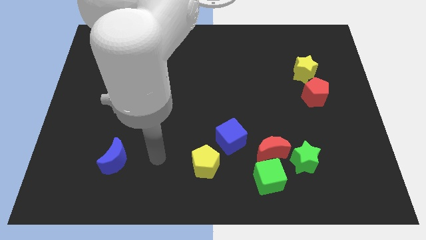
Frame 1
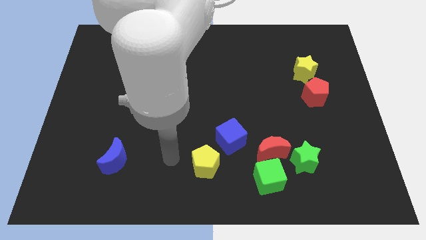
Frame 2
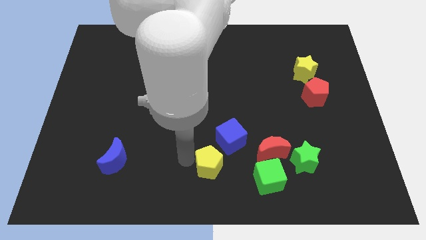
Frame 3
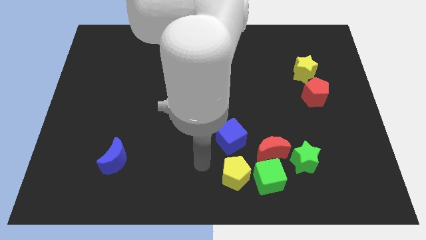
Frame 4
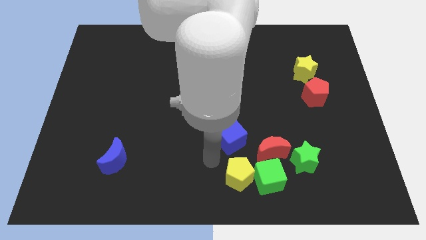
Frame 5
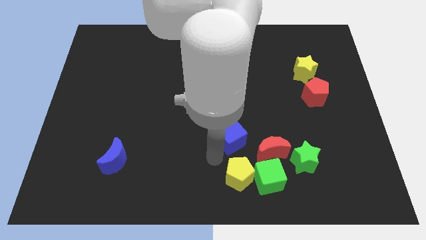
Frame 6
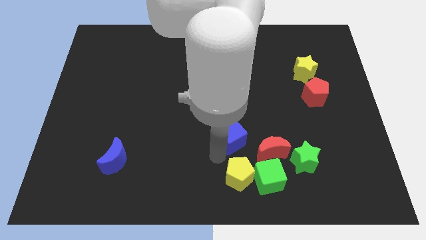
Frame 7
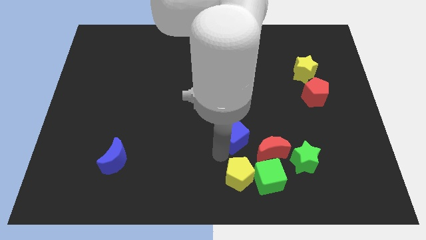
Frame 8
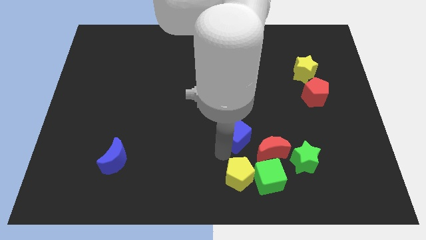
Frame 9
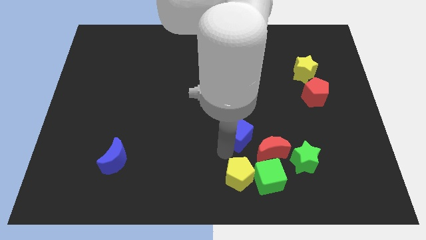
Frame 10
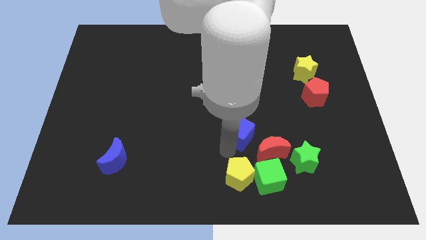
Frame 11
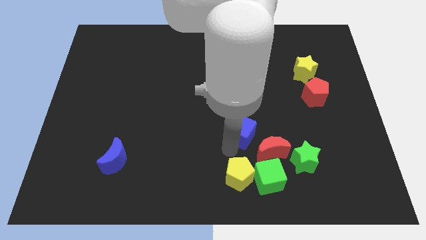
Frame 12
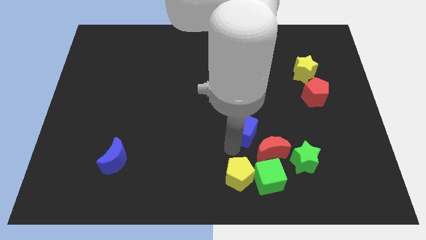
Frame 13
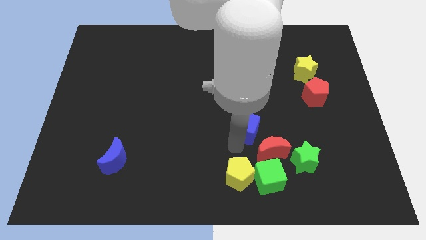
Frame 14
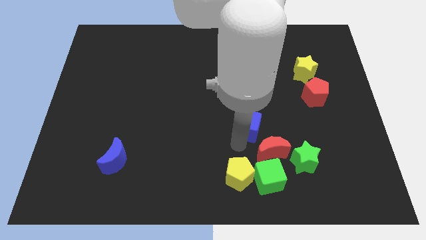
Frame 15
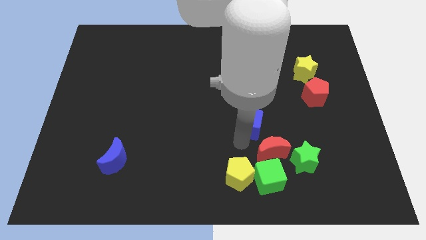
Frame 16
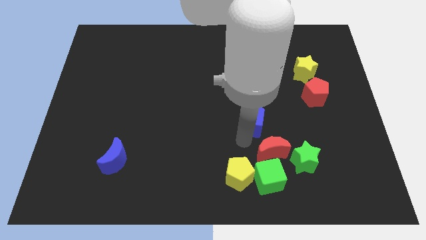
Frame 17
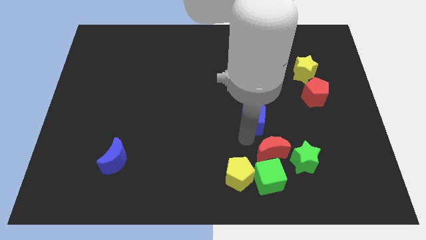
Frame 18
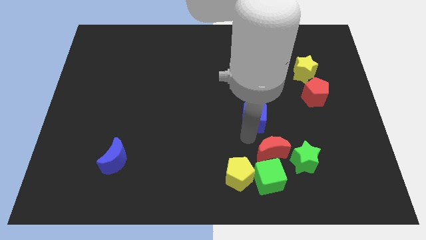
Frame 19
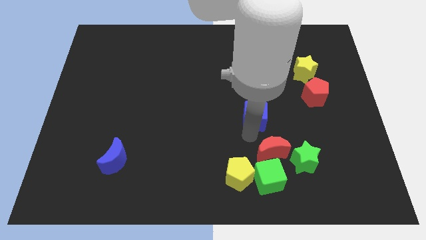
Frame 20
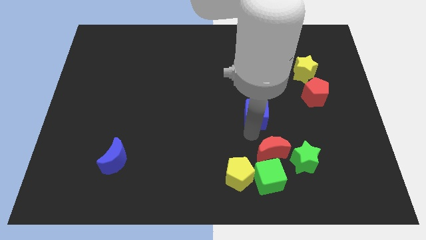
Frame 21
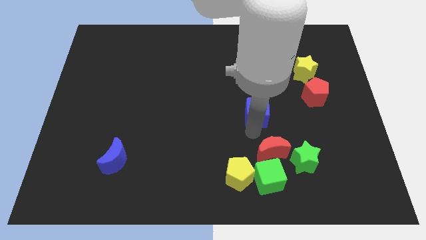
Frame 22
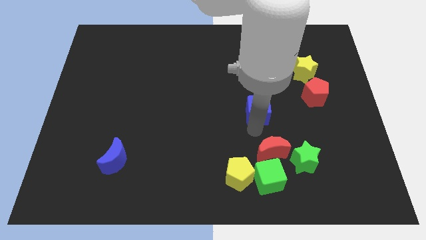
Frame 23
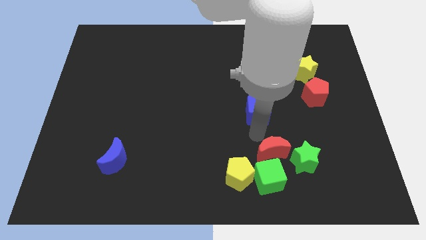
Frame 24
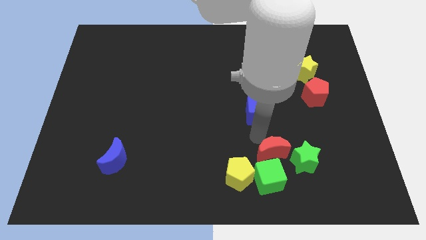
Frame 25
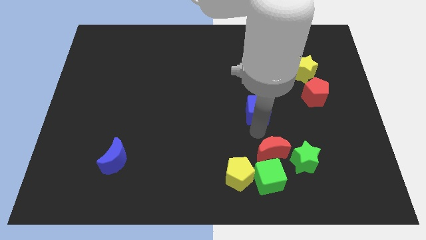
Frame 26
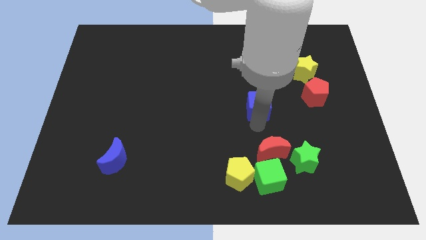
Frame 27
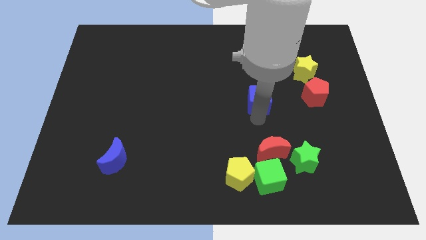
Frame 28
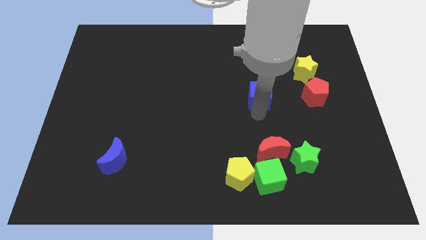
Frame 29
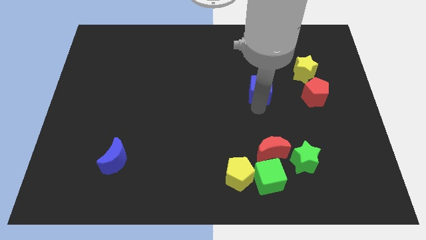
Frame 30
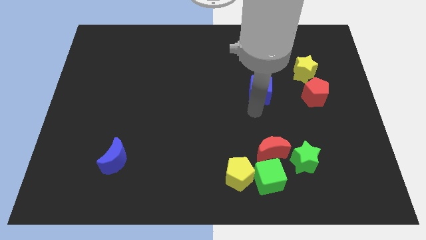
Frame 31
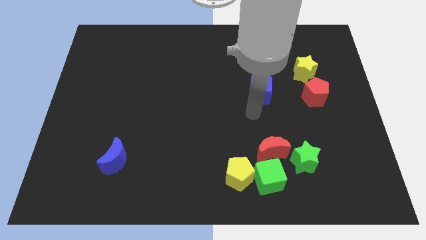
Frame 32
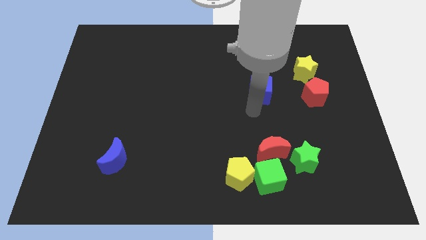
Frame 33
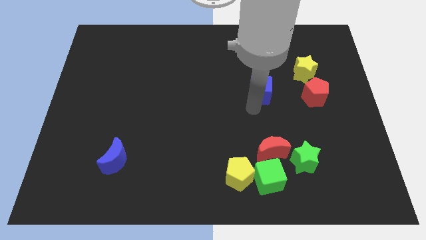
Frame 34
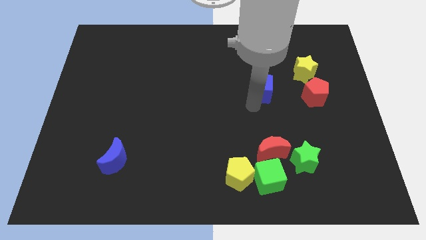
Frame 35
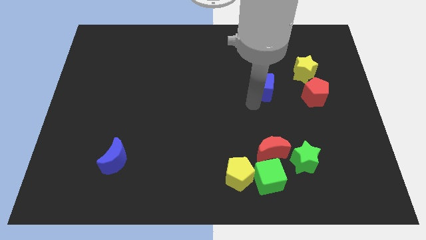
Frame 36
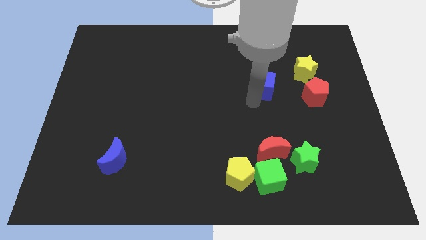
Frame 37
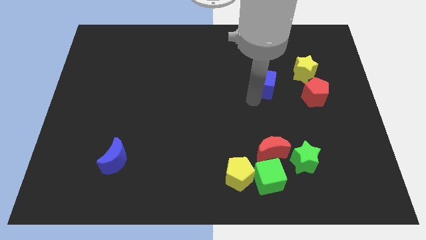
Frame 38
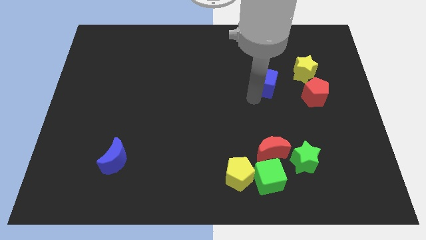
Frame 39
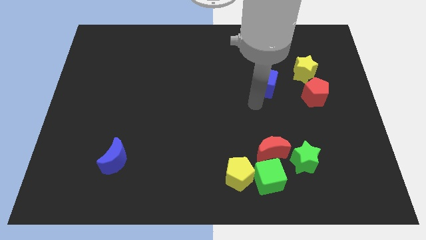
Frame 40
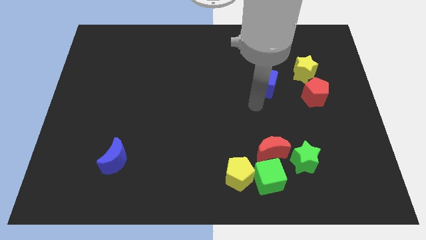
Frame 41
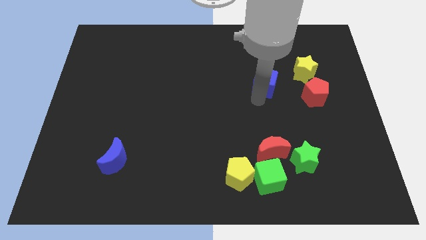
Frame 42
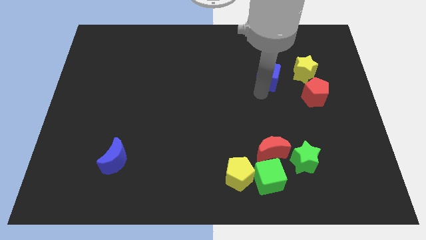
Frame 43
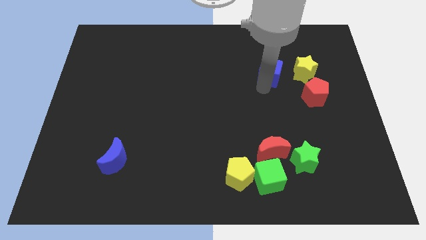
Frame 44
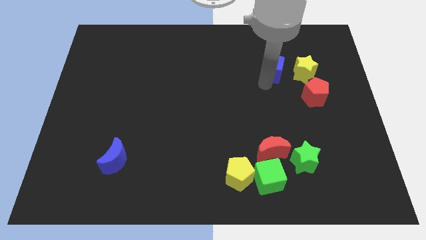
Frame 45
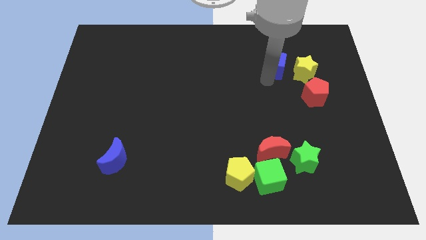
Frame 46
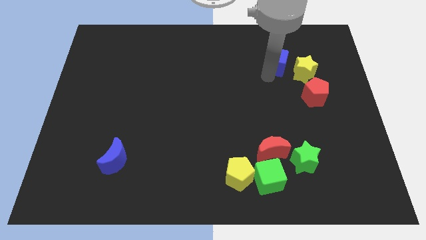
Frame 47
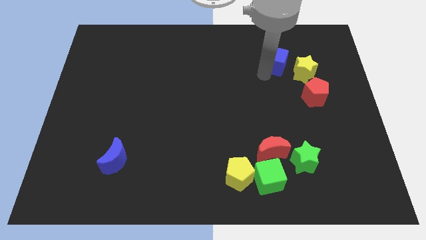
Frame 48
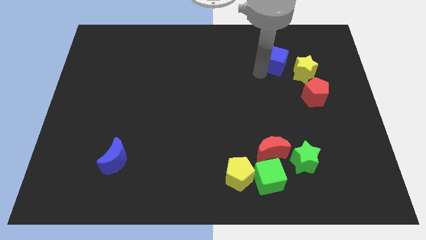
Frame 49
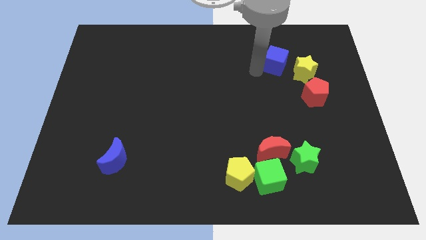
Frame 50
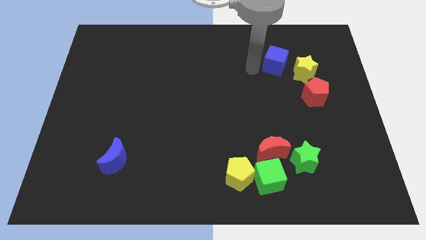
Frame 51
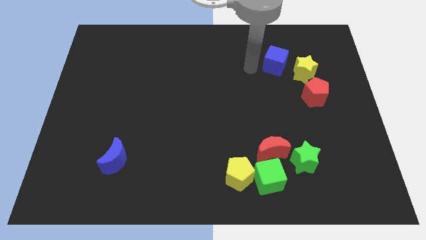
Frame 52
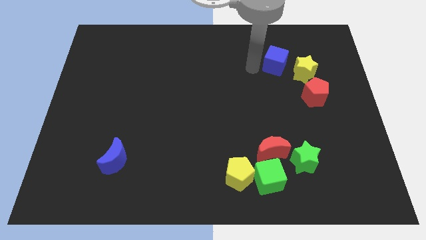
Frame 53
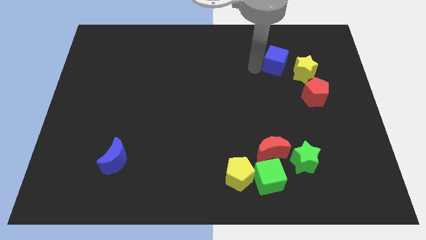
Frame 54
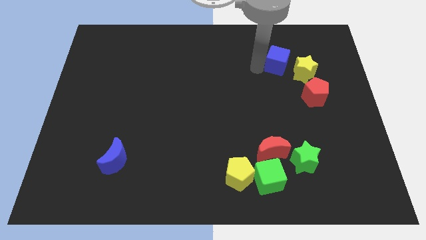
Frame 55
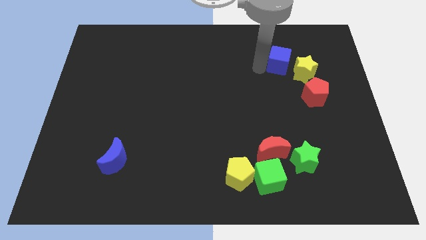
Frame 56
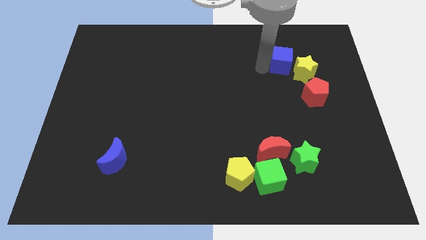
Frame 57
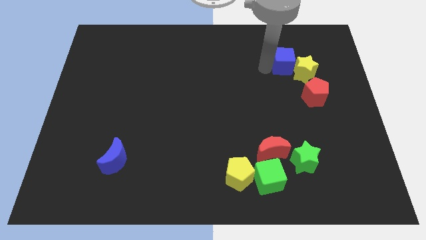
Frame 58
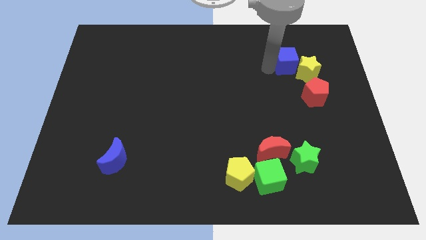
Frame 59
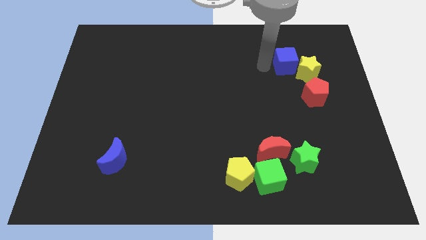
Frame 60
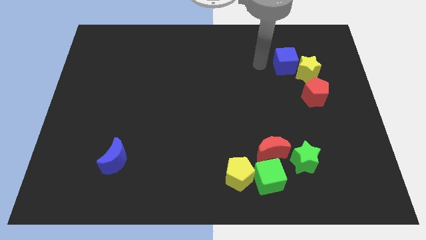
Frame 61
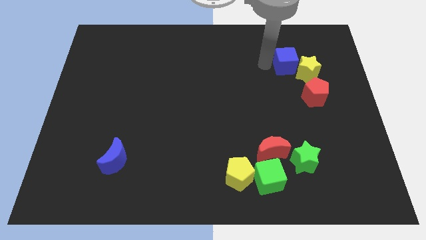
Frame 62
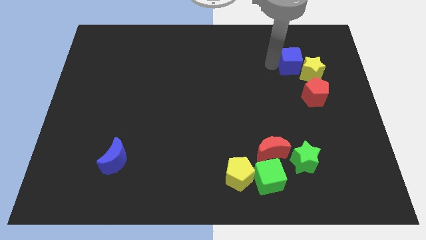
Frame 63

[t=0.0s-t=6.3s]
put the blue cube above the red pentagon

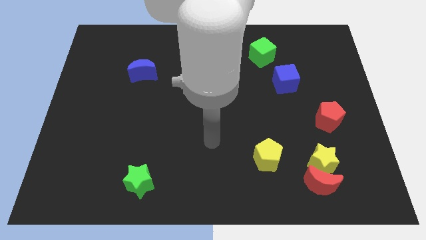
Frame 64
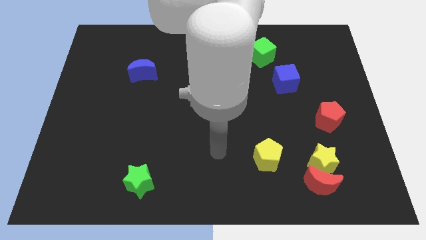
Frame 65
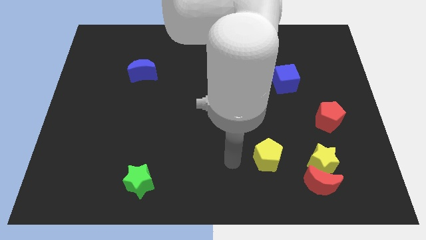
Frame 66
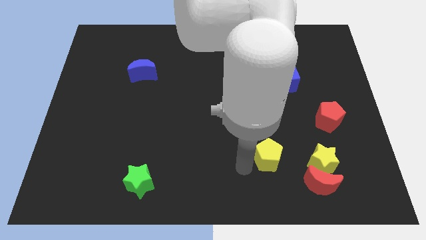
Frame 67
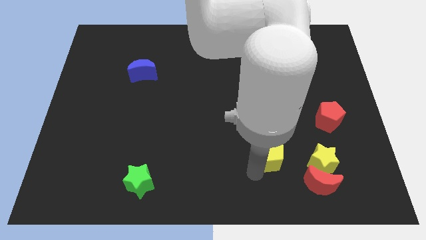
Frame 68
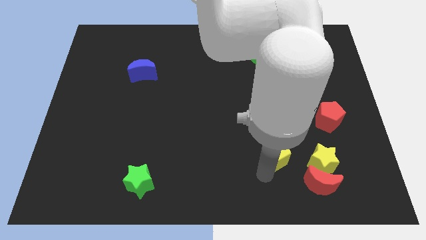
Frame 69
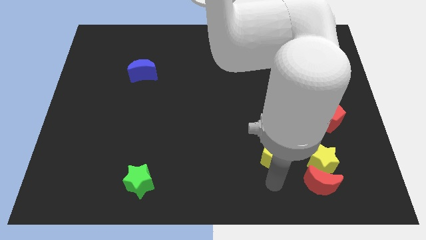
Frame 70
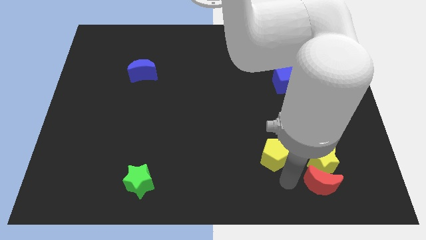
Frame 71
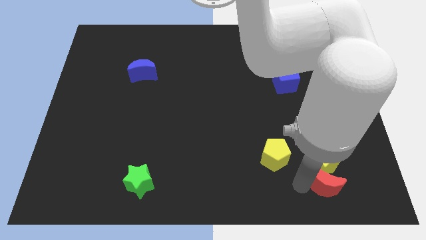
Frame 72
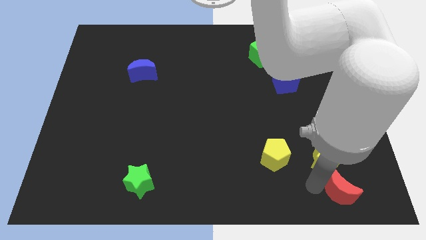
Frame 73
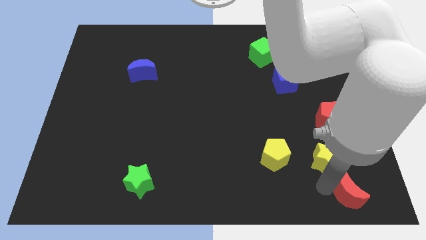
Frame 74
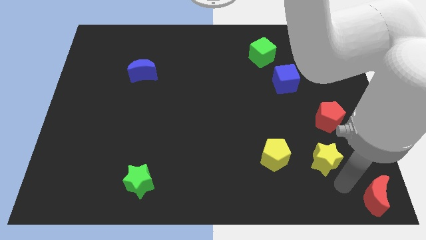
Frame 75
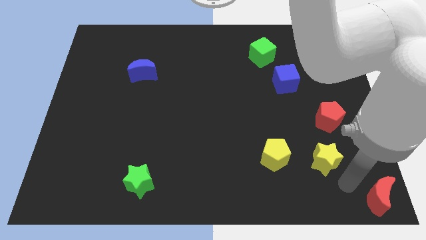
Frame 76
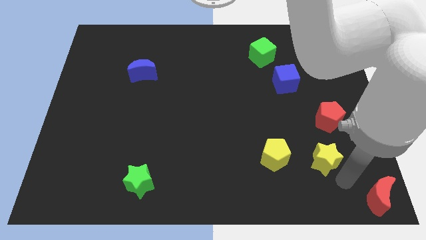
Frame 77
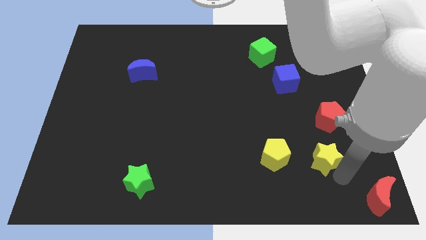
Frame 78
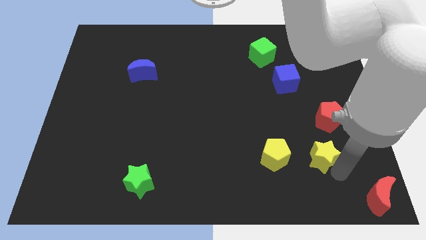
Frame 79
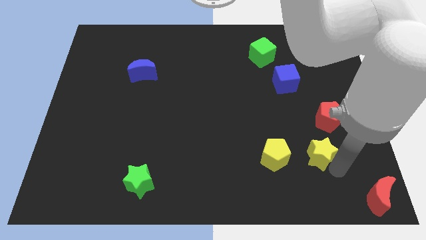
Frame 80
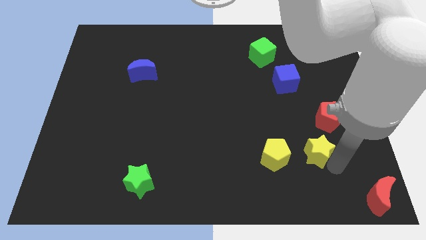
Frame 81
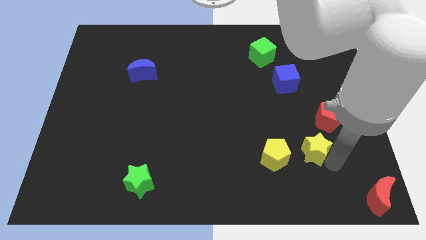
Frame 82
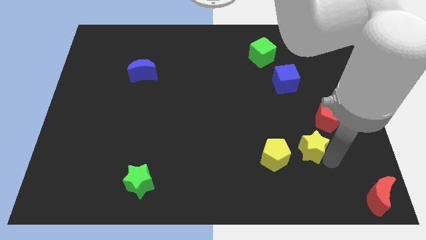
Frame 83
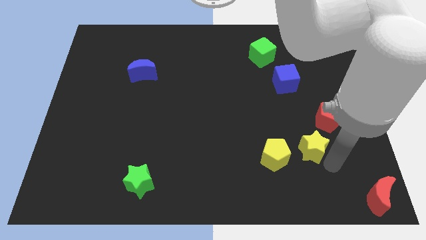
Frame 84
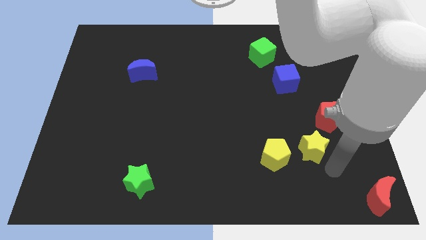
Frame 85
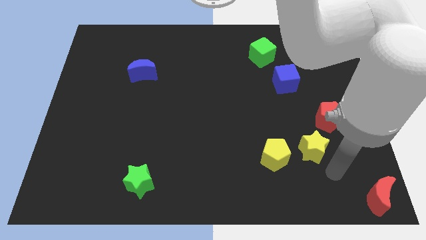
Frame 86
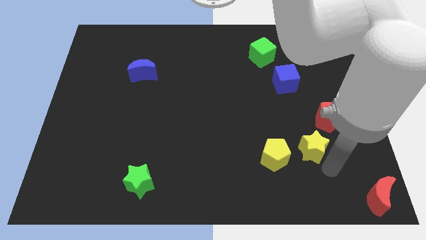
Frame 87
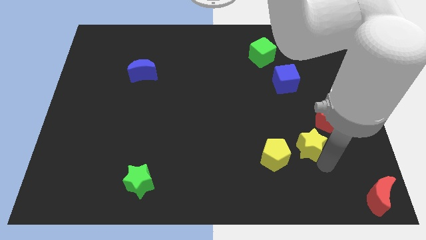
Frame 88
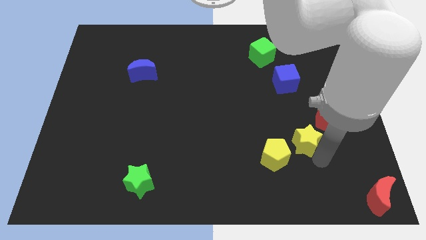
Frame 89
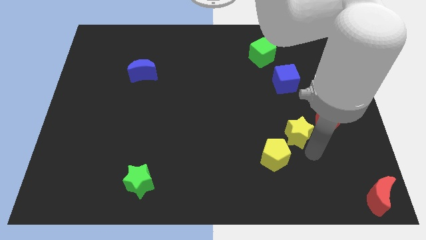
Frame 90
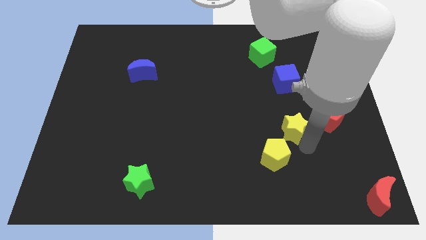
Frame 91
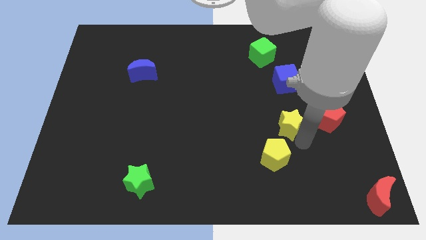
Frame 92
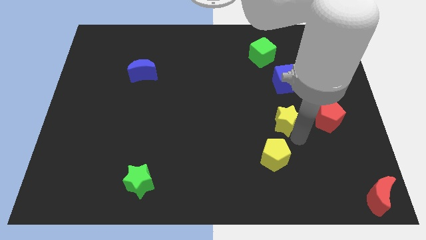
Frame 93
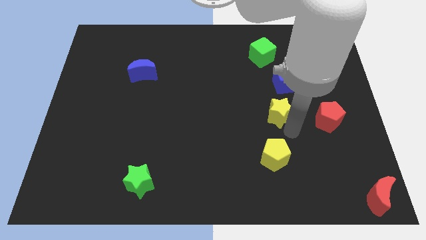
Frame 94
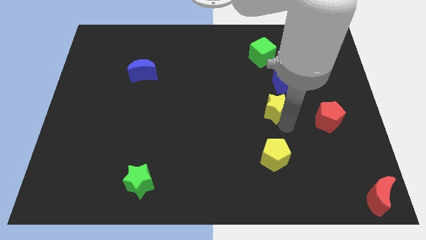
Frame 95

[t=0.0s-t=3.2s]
move the yellow star diagonally down and to the left of the blue cube
